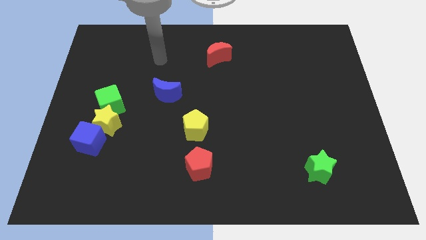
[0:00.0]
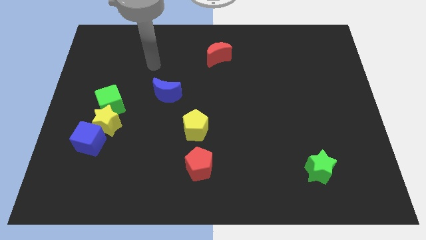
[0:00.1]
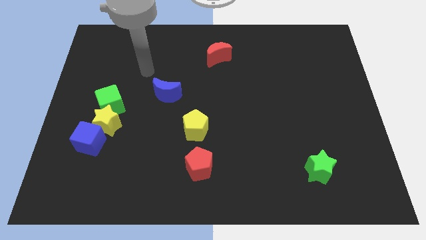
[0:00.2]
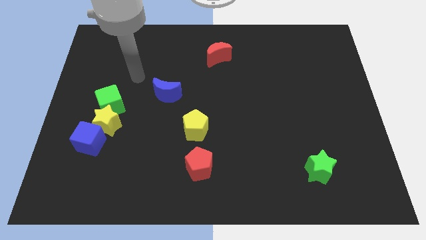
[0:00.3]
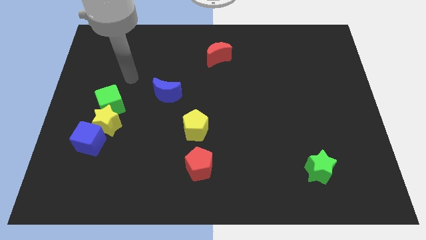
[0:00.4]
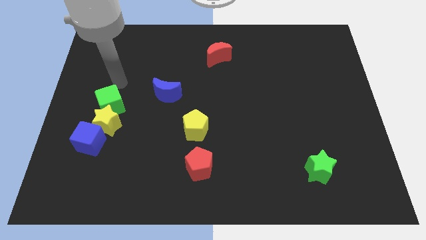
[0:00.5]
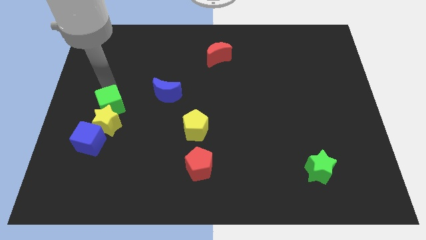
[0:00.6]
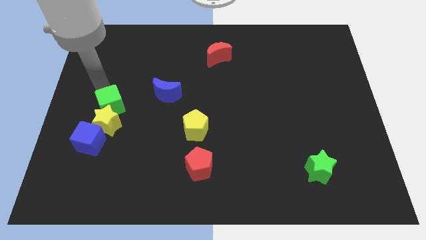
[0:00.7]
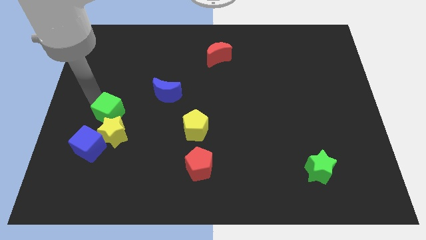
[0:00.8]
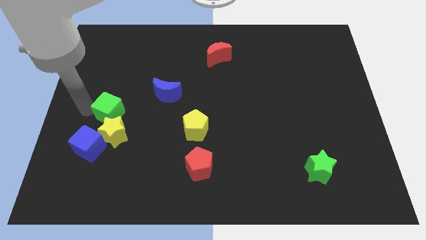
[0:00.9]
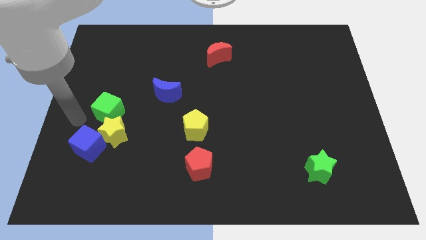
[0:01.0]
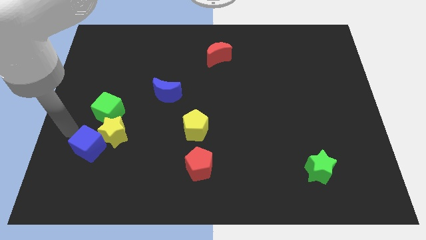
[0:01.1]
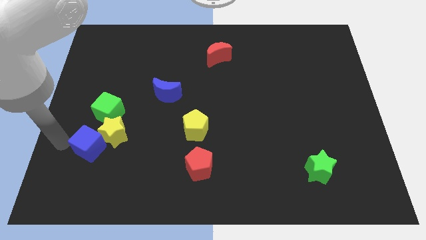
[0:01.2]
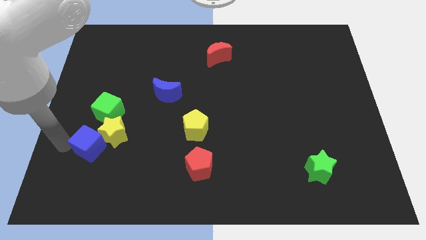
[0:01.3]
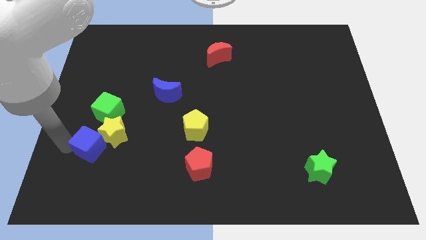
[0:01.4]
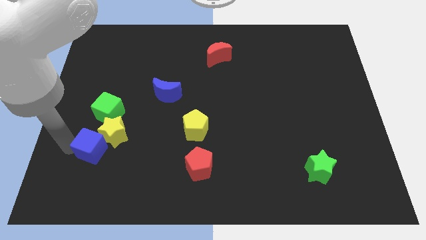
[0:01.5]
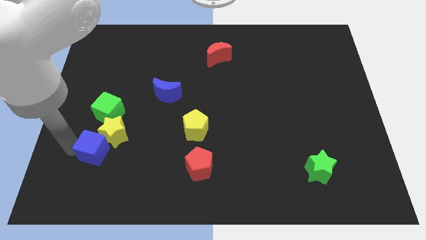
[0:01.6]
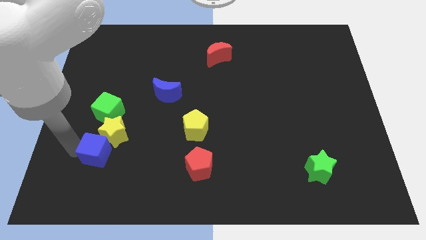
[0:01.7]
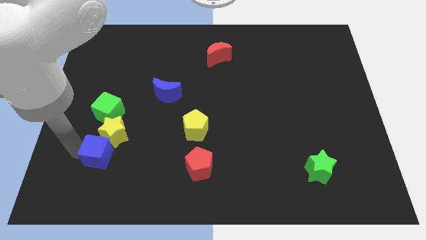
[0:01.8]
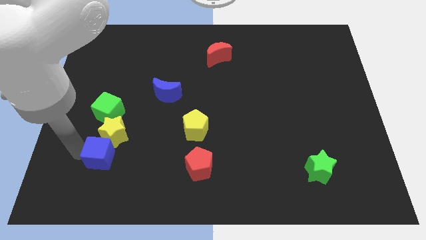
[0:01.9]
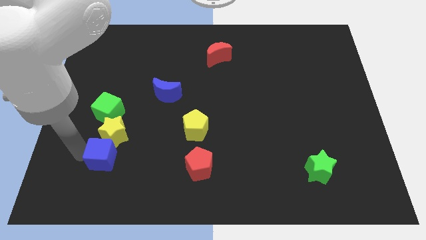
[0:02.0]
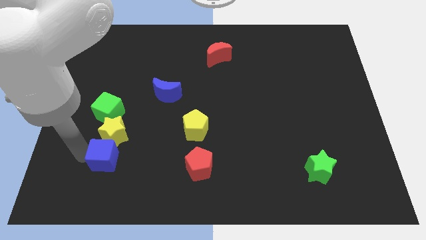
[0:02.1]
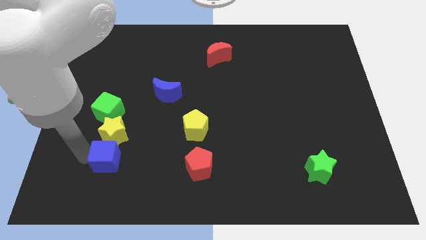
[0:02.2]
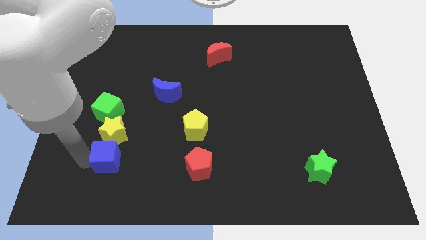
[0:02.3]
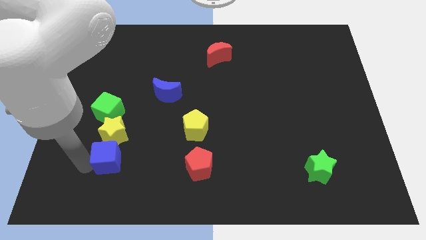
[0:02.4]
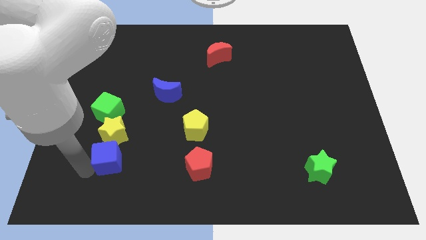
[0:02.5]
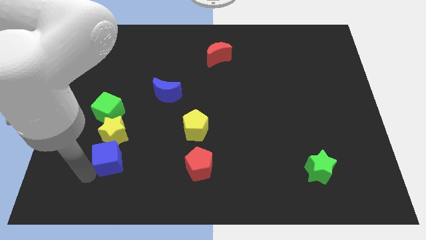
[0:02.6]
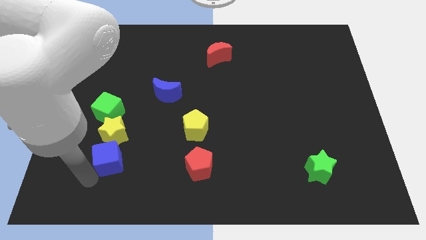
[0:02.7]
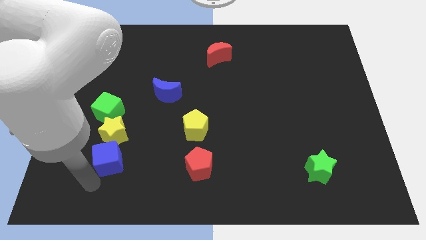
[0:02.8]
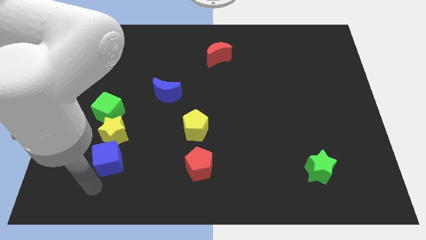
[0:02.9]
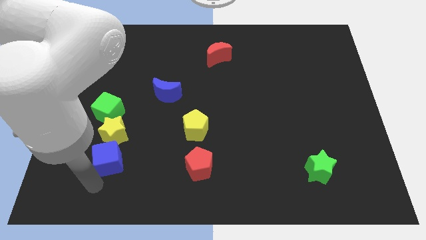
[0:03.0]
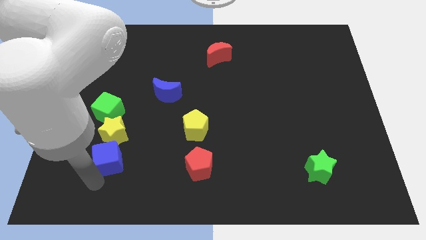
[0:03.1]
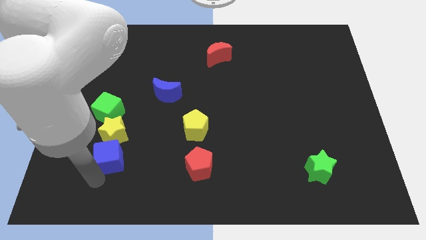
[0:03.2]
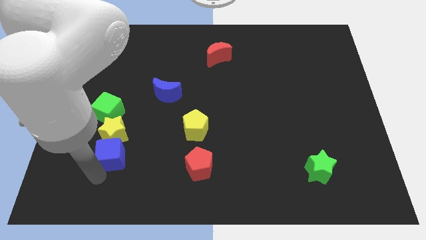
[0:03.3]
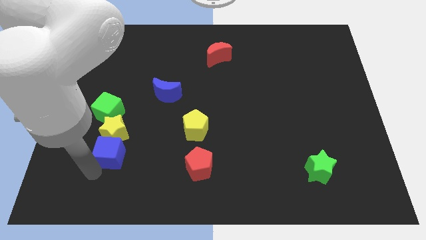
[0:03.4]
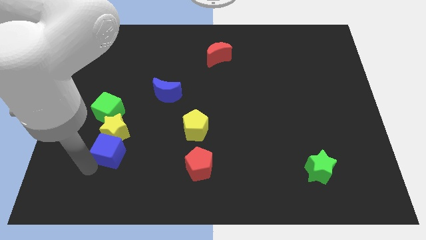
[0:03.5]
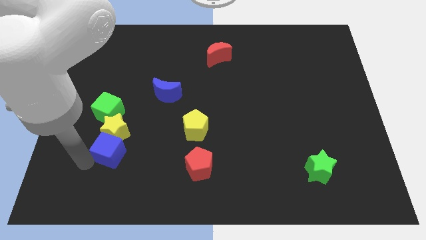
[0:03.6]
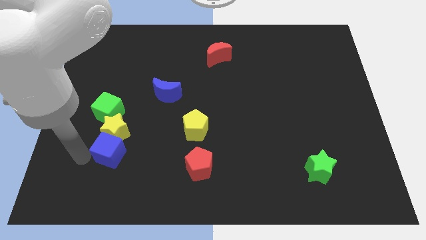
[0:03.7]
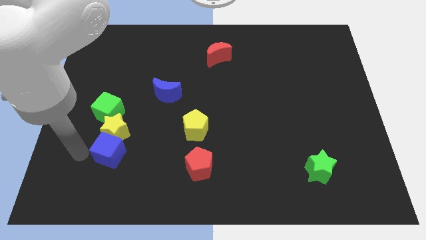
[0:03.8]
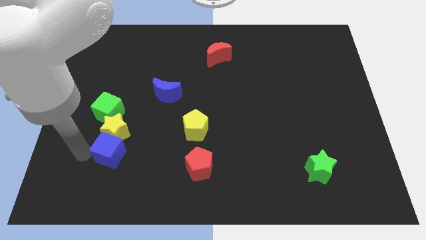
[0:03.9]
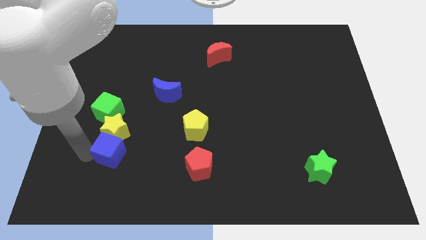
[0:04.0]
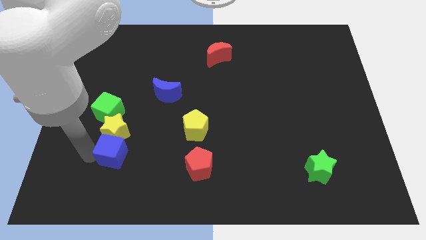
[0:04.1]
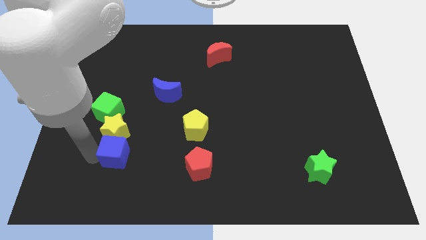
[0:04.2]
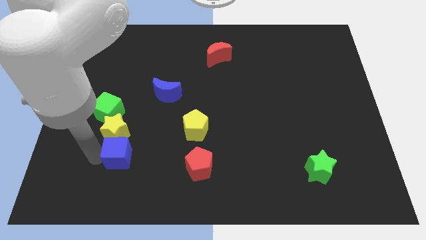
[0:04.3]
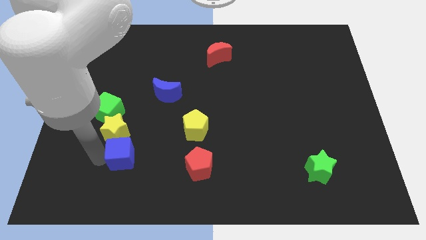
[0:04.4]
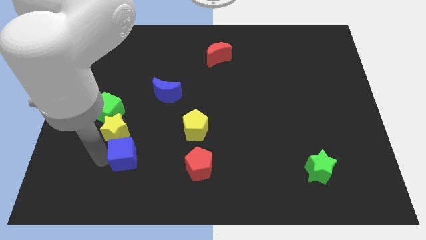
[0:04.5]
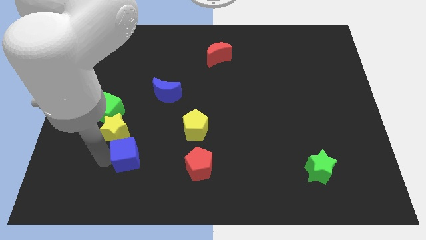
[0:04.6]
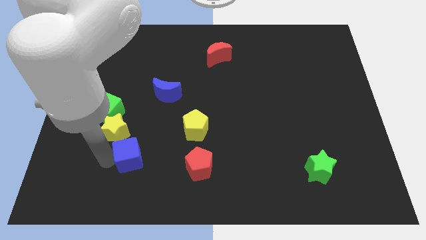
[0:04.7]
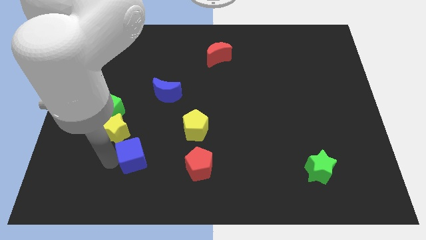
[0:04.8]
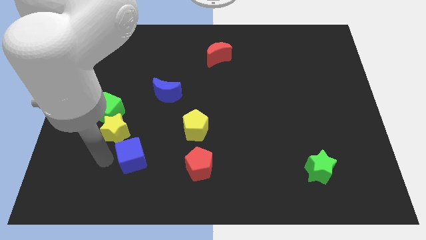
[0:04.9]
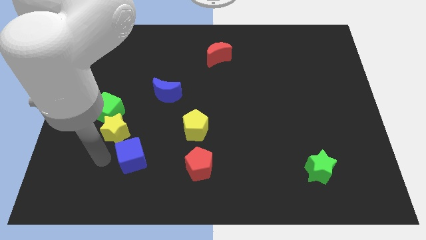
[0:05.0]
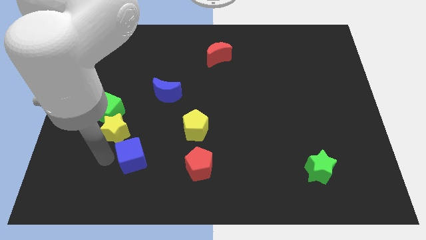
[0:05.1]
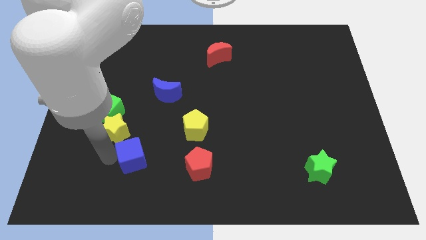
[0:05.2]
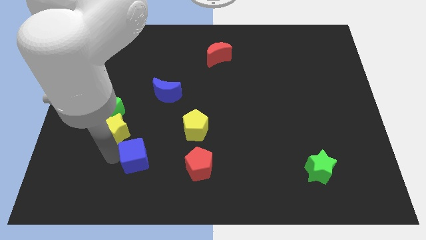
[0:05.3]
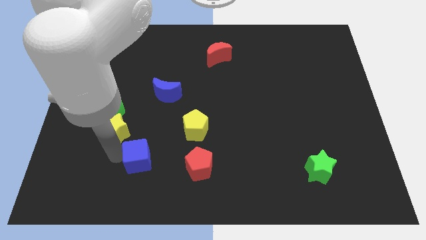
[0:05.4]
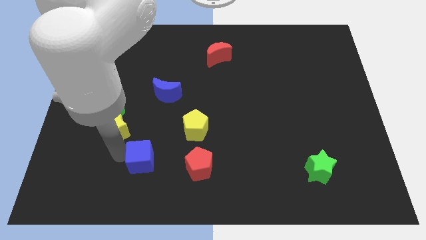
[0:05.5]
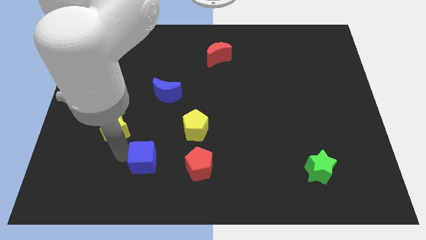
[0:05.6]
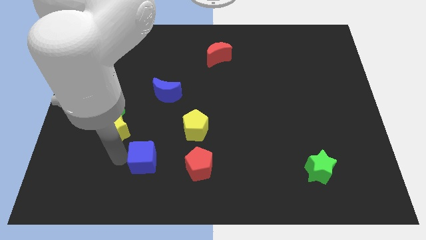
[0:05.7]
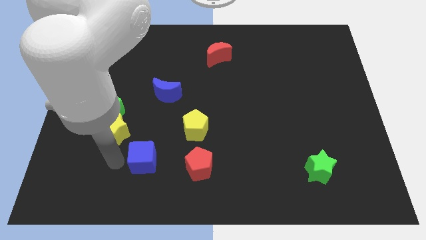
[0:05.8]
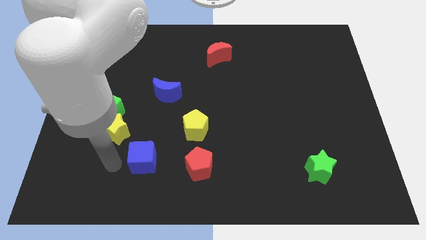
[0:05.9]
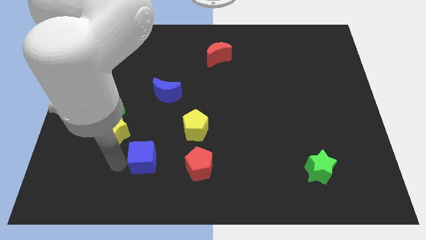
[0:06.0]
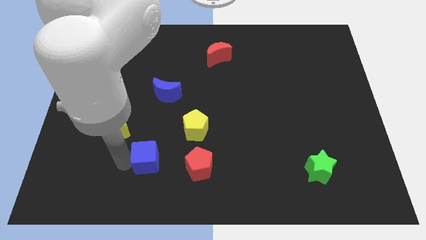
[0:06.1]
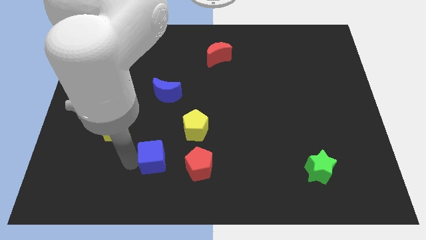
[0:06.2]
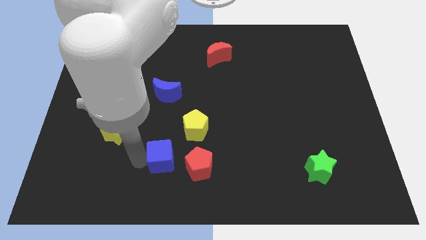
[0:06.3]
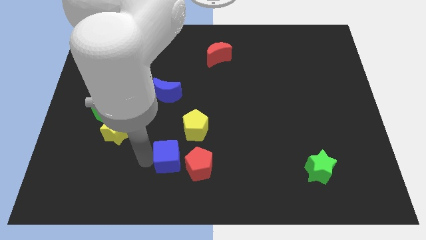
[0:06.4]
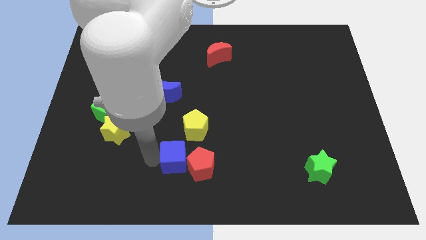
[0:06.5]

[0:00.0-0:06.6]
put the blue cube towards the red pentagon

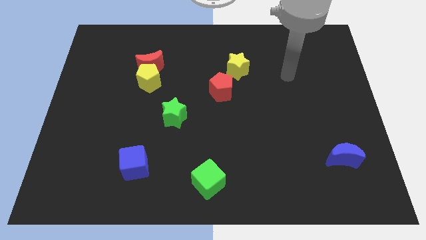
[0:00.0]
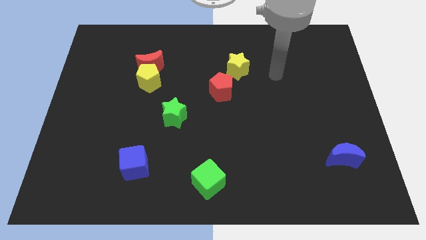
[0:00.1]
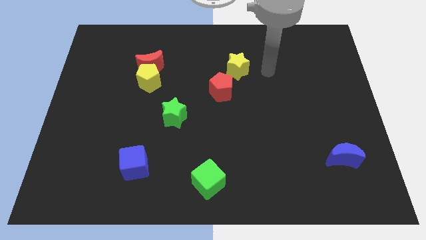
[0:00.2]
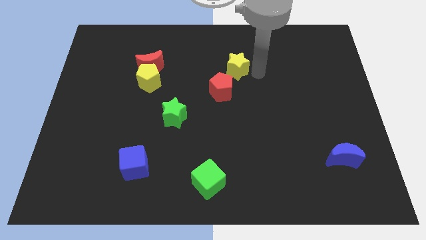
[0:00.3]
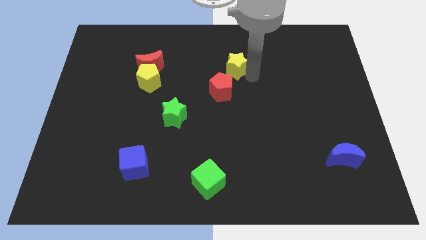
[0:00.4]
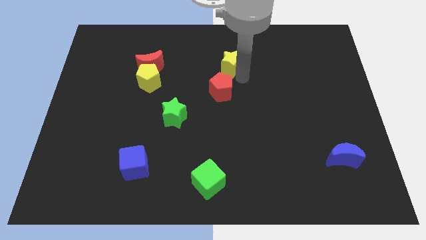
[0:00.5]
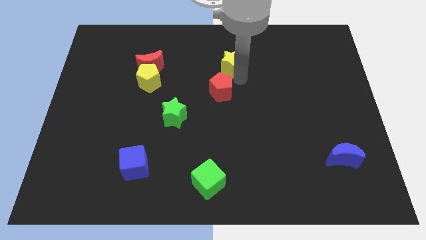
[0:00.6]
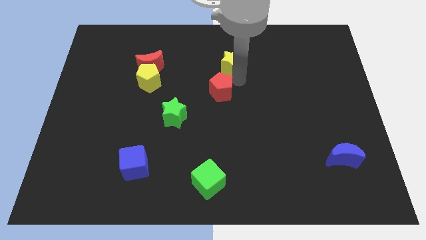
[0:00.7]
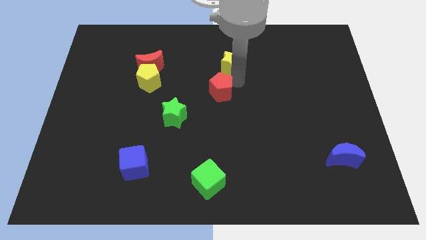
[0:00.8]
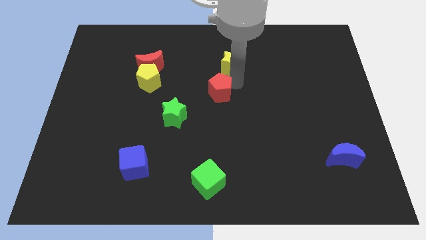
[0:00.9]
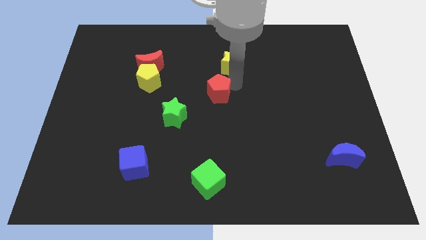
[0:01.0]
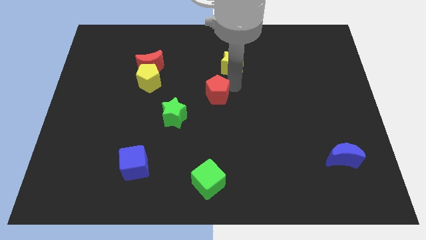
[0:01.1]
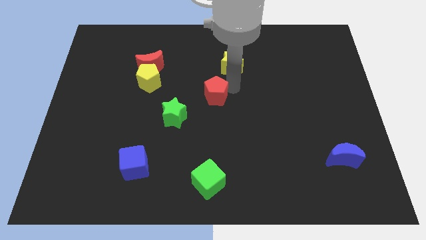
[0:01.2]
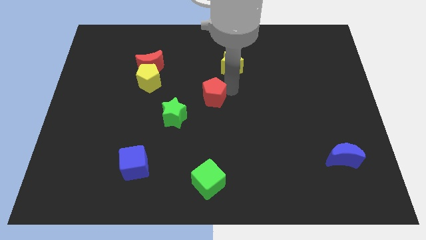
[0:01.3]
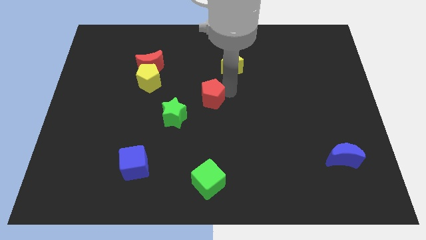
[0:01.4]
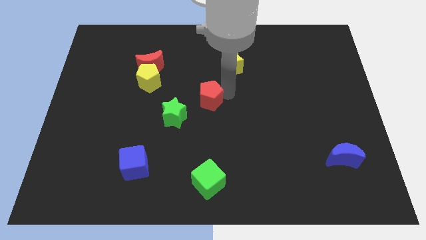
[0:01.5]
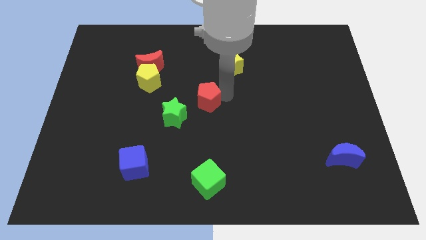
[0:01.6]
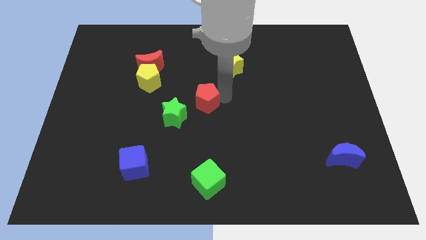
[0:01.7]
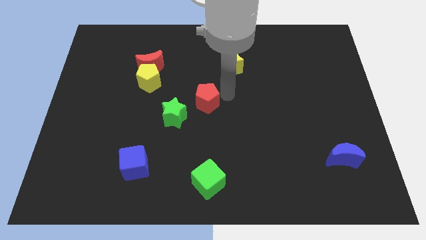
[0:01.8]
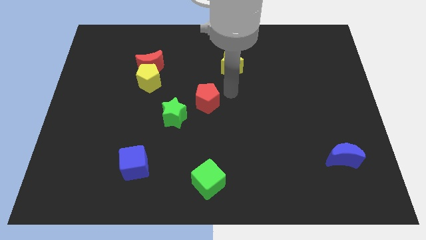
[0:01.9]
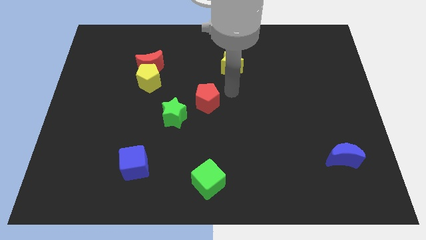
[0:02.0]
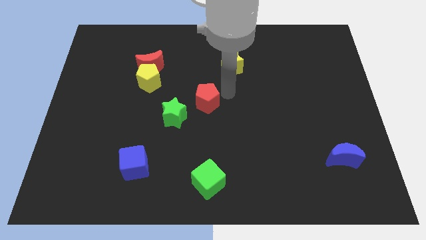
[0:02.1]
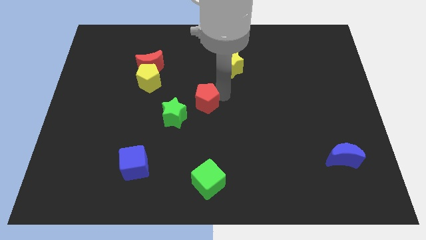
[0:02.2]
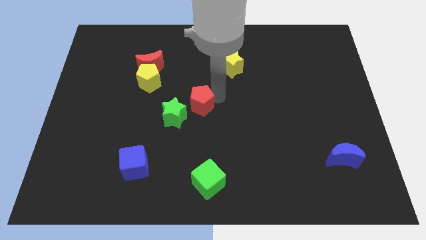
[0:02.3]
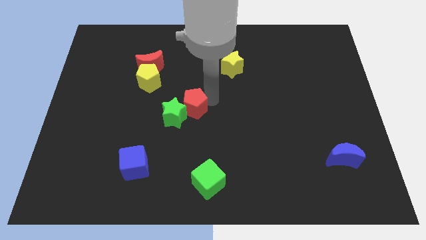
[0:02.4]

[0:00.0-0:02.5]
put the red pentagon towards the green star
